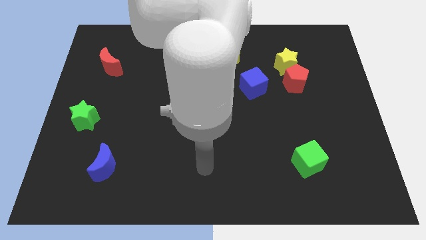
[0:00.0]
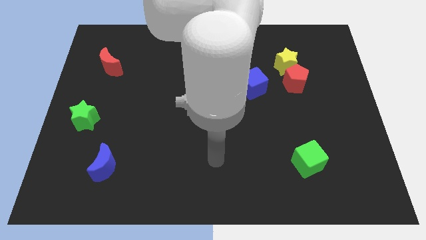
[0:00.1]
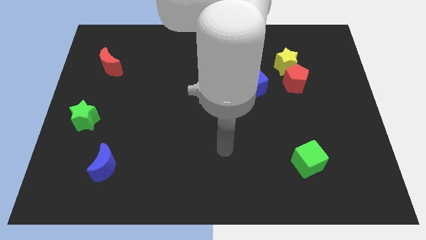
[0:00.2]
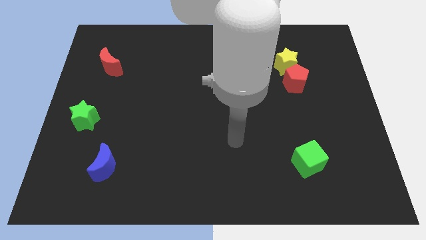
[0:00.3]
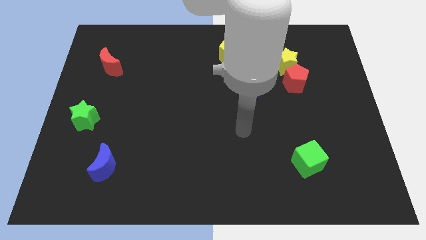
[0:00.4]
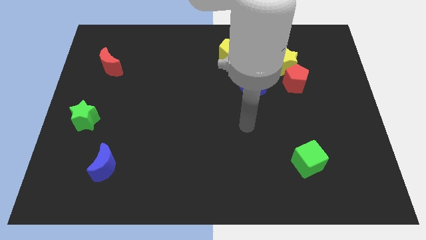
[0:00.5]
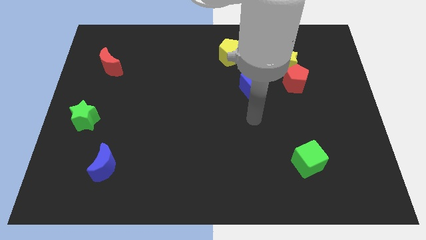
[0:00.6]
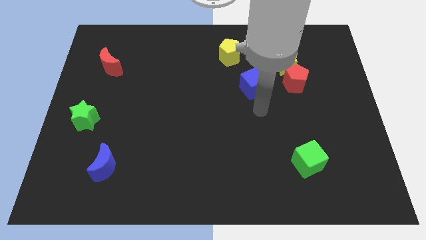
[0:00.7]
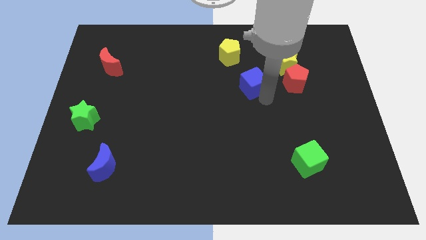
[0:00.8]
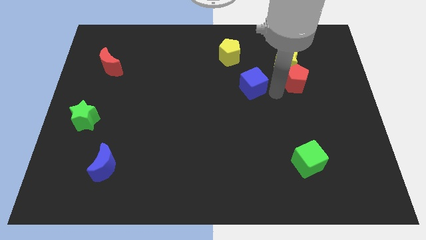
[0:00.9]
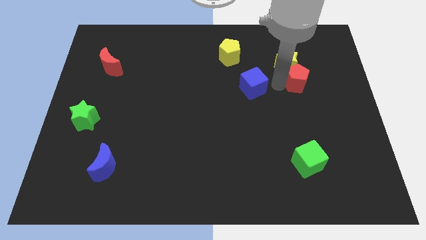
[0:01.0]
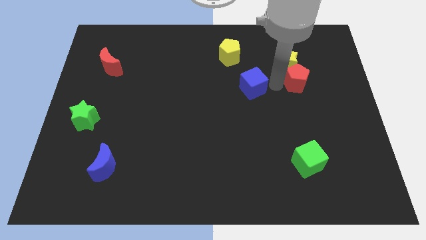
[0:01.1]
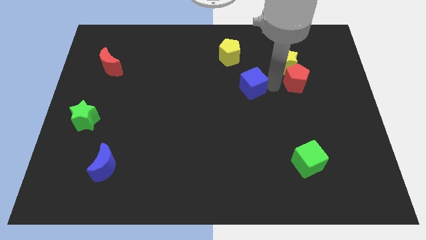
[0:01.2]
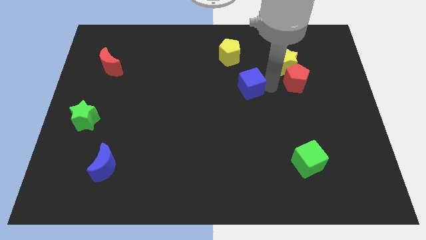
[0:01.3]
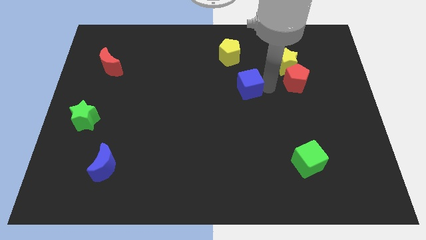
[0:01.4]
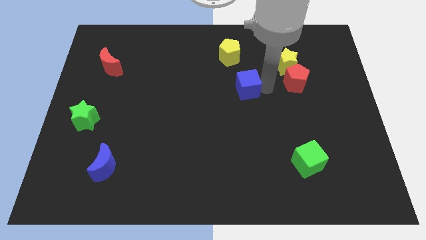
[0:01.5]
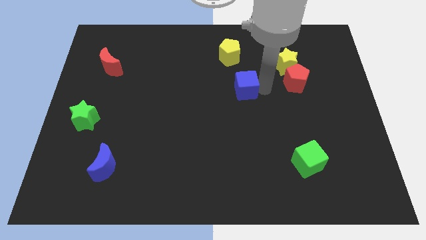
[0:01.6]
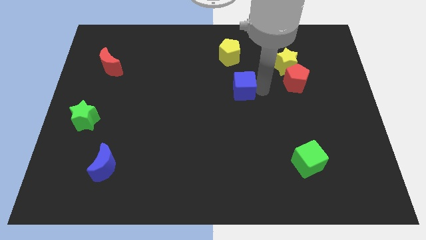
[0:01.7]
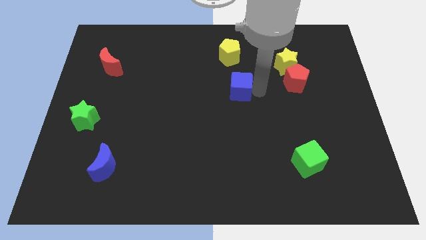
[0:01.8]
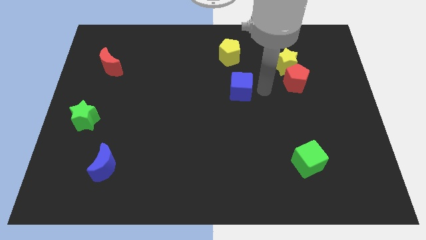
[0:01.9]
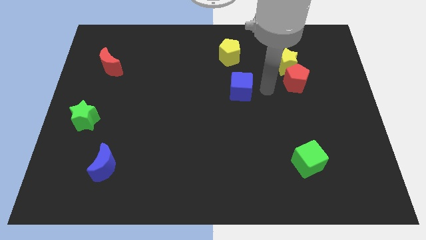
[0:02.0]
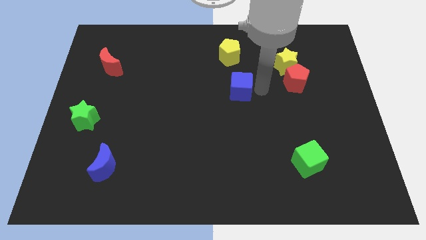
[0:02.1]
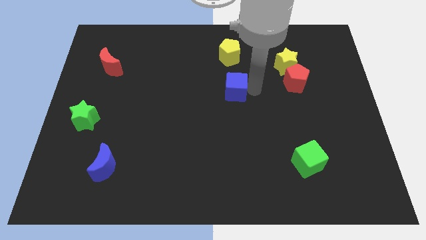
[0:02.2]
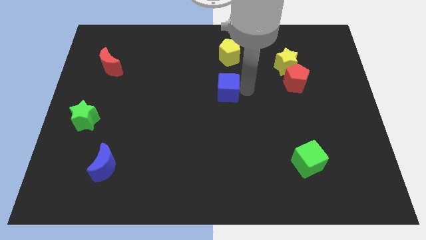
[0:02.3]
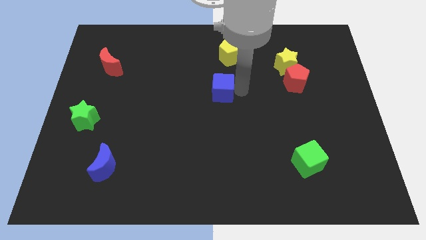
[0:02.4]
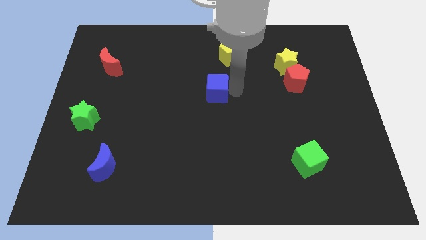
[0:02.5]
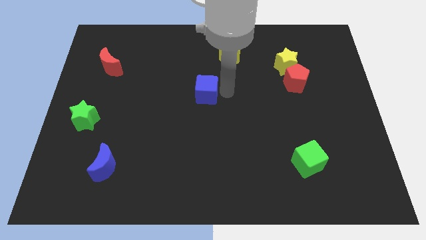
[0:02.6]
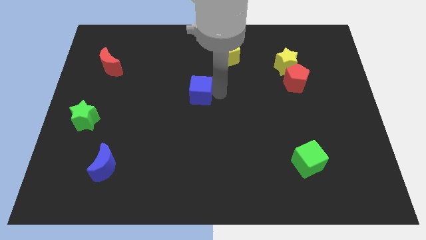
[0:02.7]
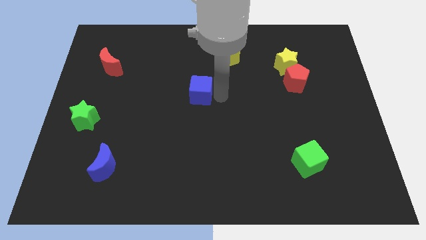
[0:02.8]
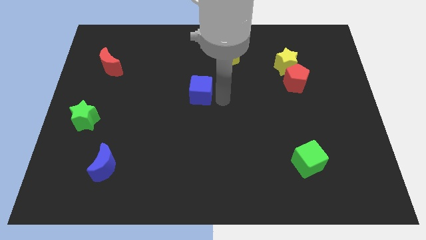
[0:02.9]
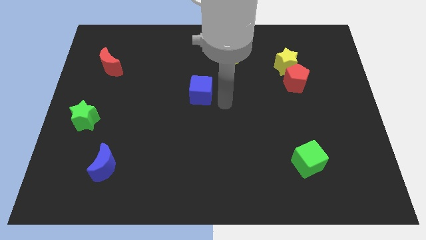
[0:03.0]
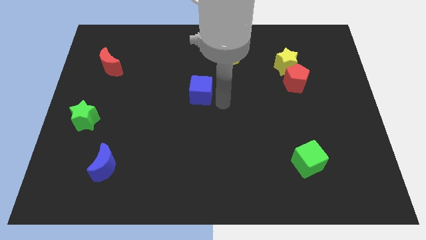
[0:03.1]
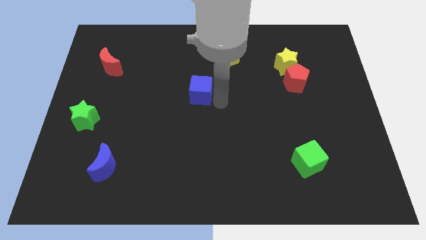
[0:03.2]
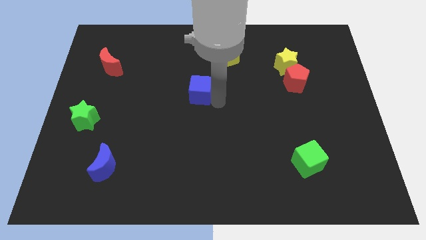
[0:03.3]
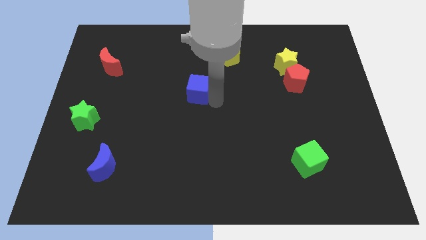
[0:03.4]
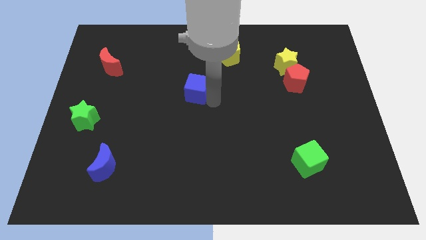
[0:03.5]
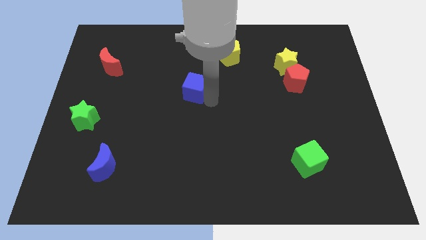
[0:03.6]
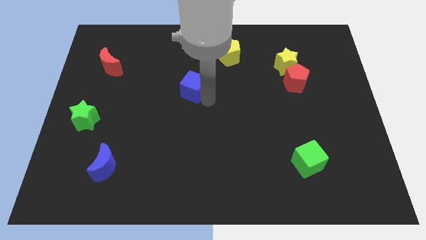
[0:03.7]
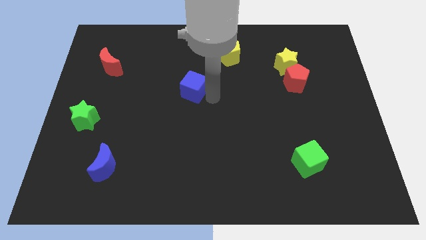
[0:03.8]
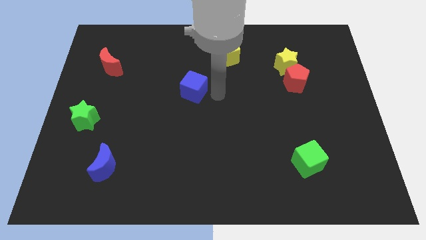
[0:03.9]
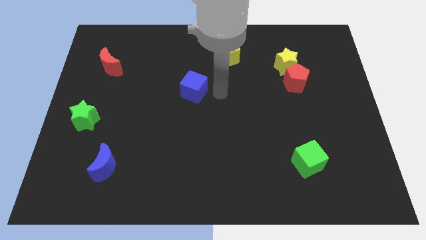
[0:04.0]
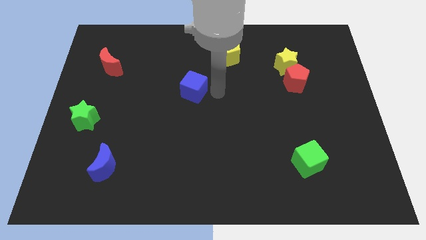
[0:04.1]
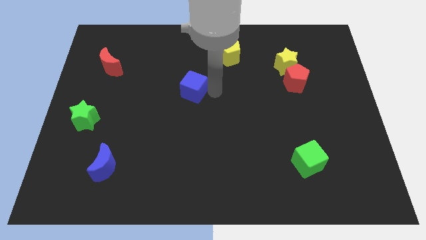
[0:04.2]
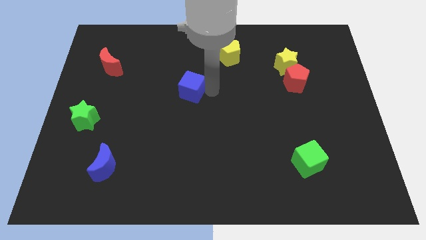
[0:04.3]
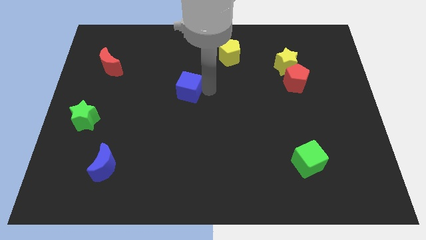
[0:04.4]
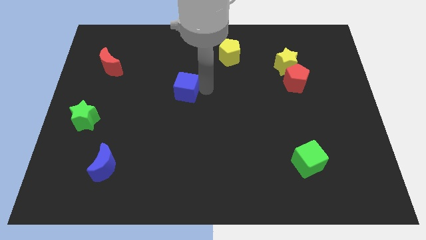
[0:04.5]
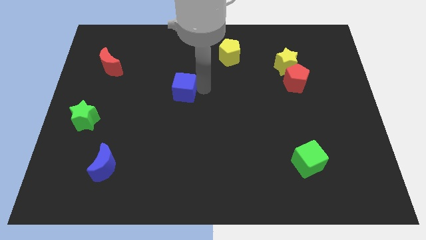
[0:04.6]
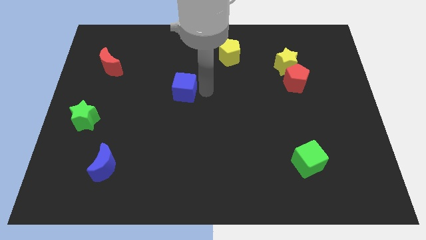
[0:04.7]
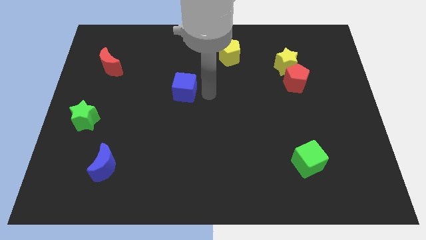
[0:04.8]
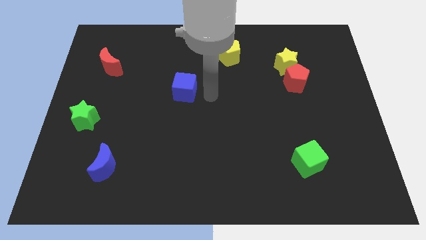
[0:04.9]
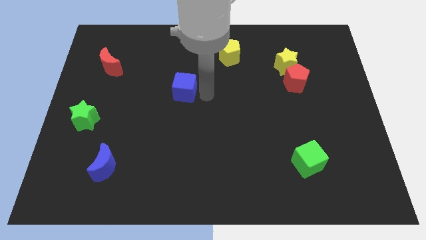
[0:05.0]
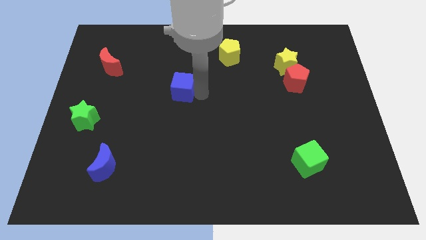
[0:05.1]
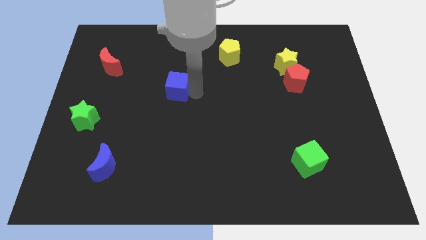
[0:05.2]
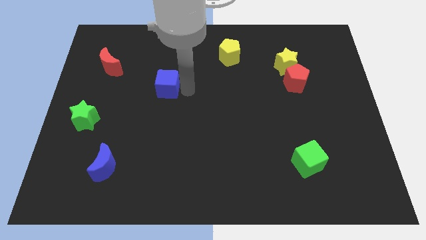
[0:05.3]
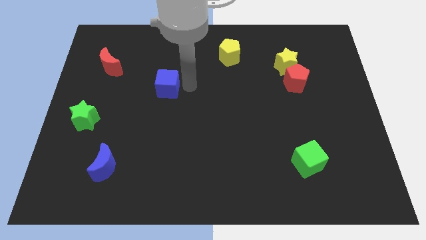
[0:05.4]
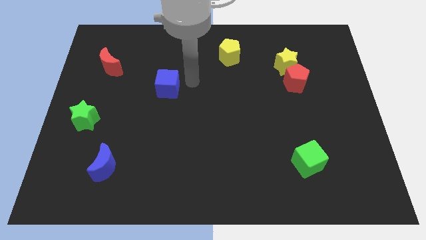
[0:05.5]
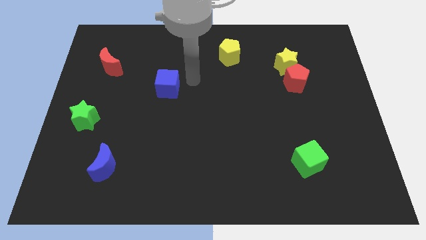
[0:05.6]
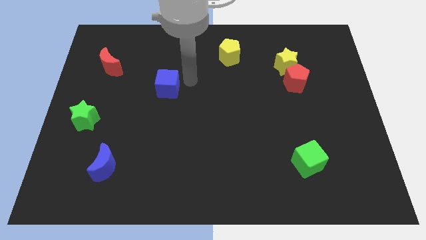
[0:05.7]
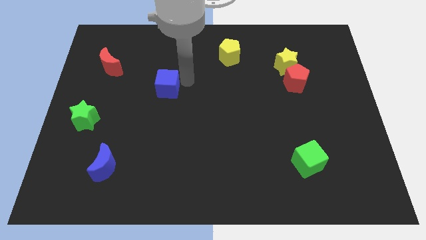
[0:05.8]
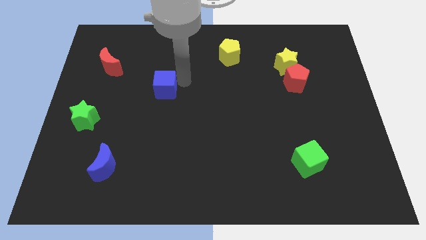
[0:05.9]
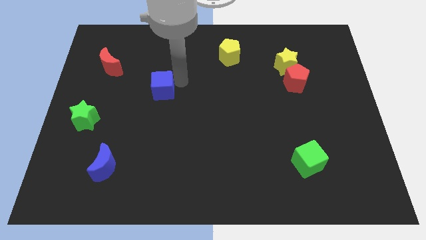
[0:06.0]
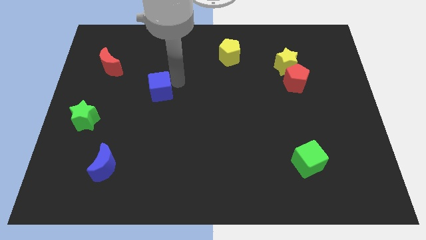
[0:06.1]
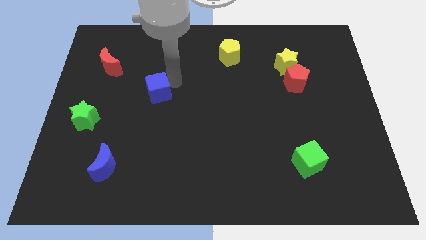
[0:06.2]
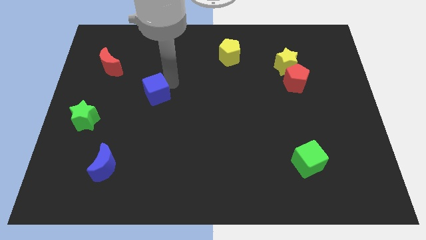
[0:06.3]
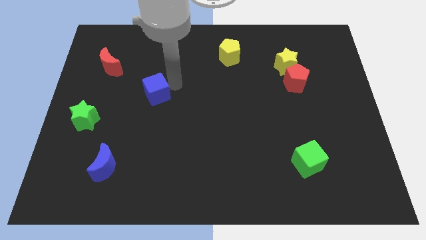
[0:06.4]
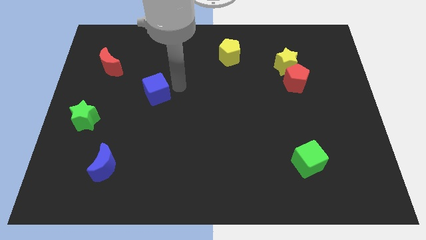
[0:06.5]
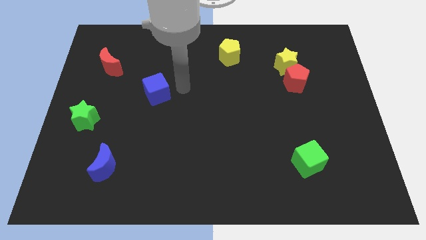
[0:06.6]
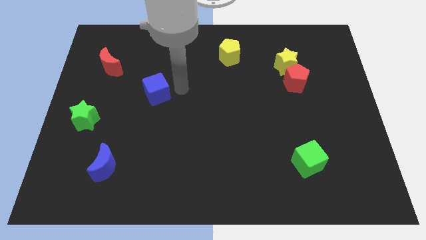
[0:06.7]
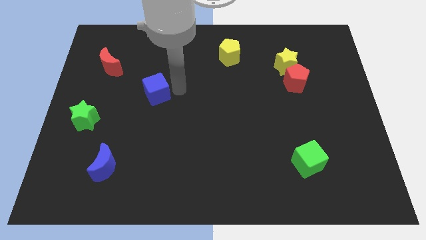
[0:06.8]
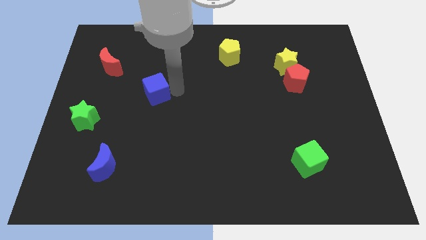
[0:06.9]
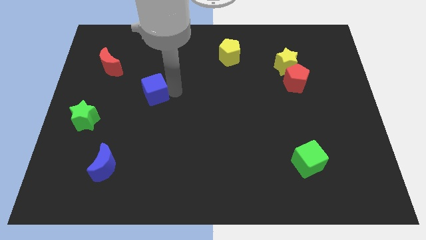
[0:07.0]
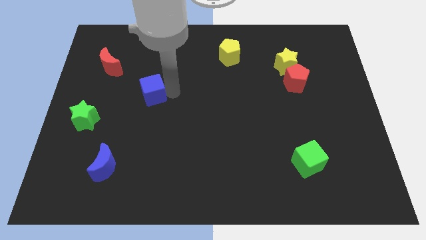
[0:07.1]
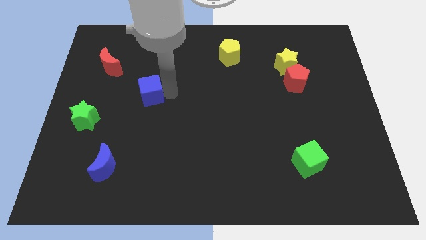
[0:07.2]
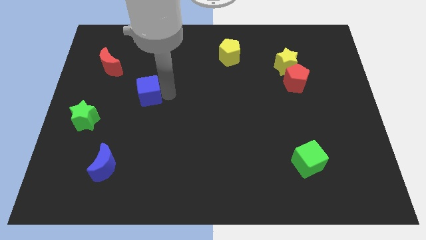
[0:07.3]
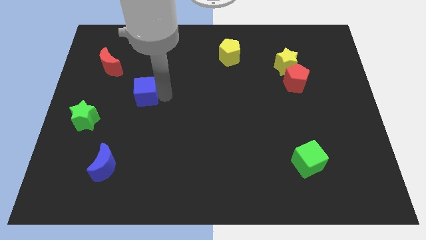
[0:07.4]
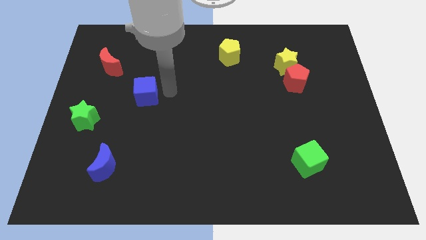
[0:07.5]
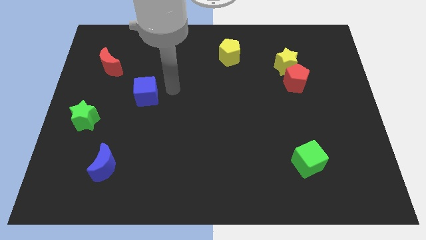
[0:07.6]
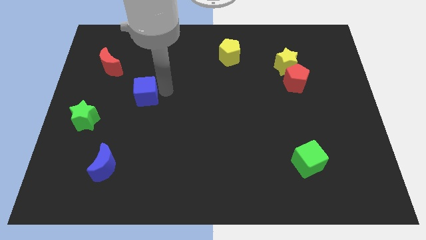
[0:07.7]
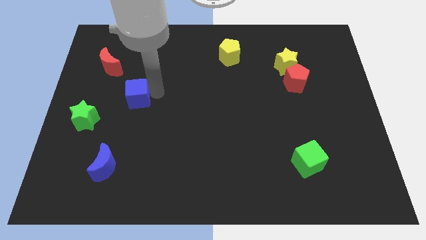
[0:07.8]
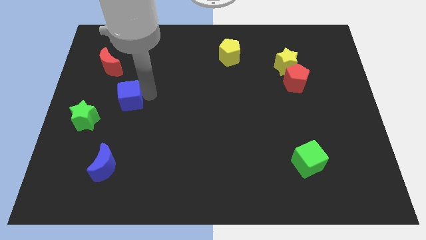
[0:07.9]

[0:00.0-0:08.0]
slide the blue cube diagonally up and to the right of the green star
